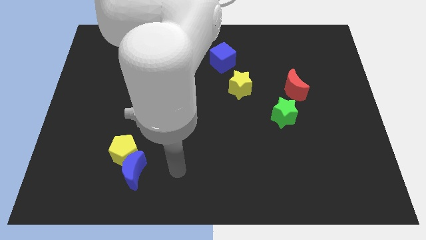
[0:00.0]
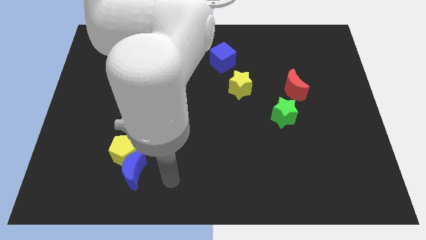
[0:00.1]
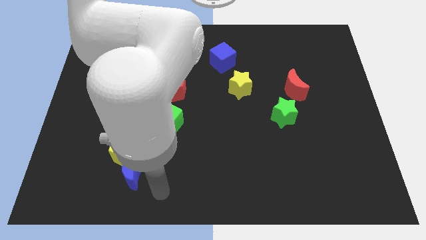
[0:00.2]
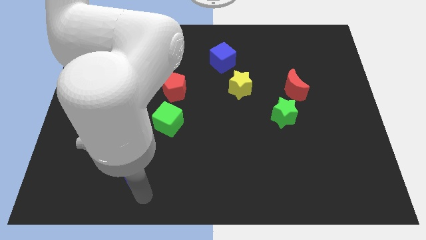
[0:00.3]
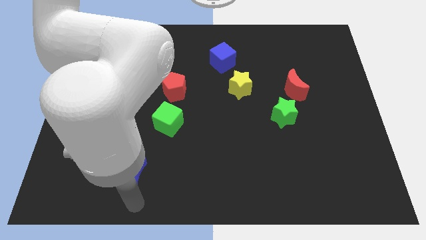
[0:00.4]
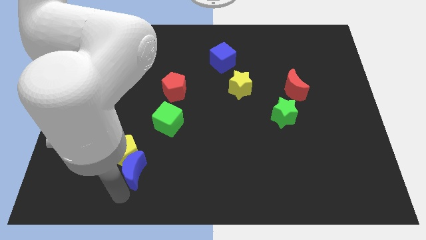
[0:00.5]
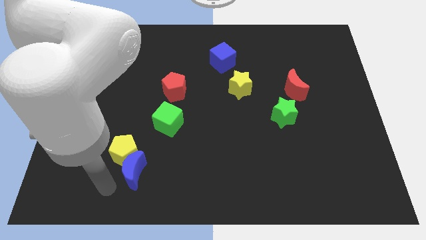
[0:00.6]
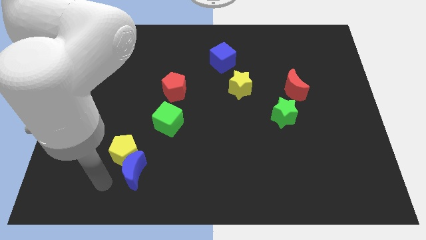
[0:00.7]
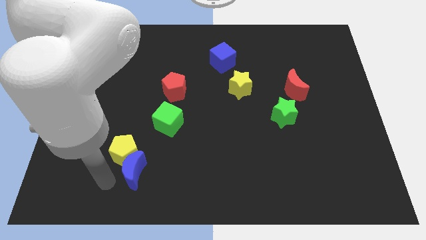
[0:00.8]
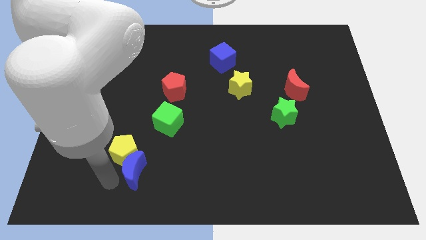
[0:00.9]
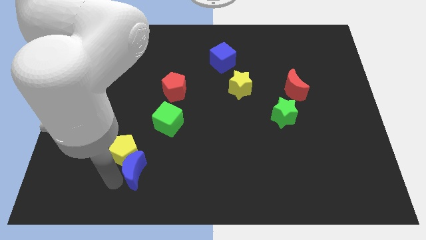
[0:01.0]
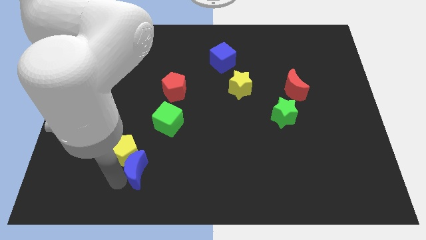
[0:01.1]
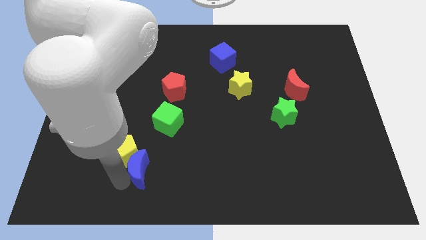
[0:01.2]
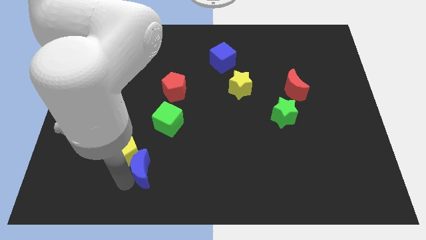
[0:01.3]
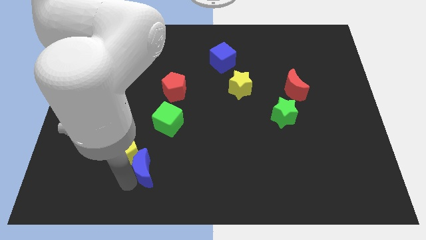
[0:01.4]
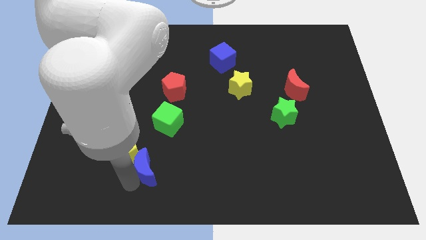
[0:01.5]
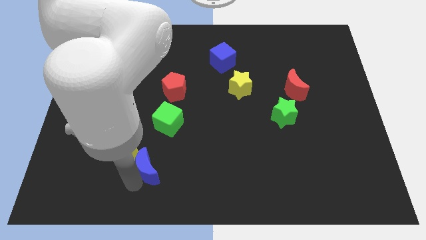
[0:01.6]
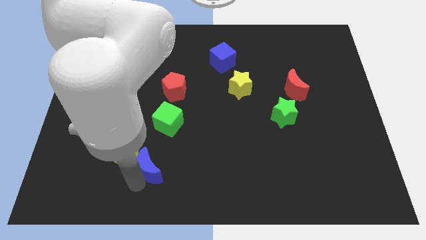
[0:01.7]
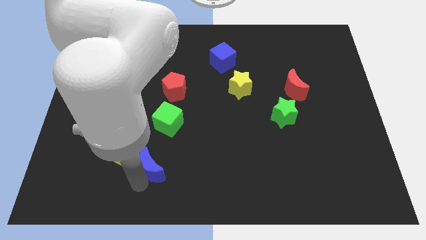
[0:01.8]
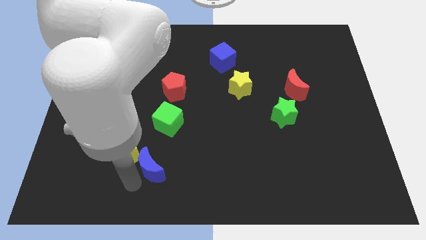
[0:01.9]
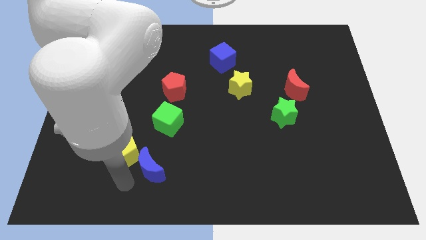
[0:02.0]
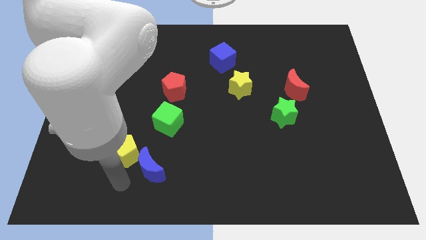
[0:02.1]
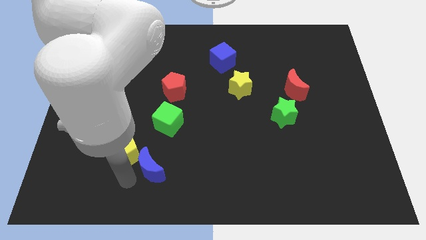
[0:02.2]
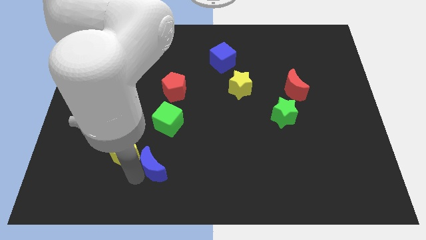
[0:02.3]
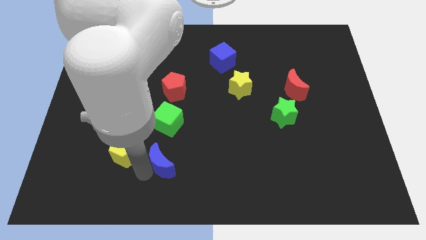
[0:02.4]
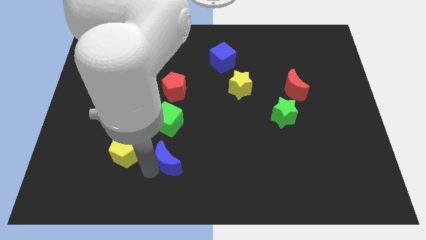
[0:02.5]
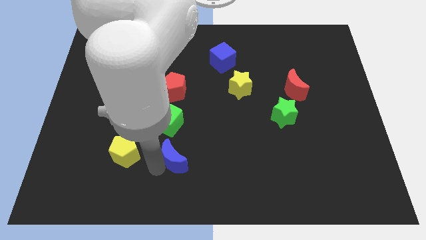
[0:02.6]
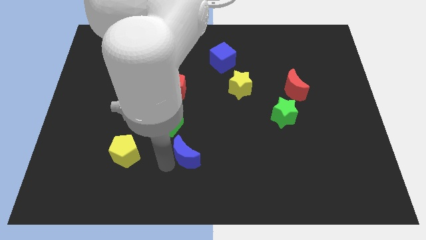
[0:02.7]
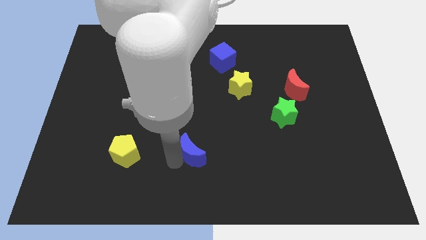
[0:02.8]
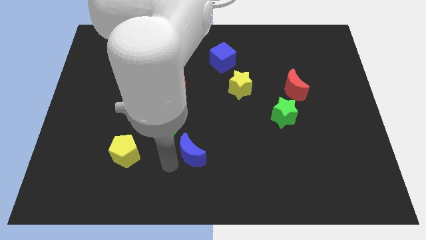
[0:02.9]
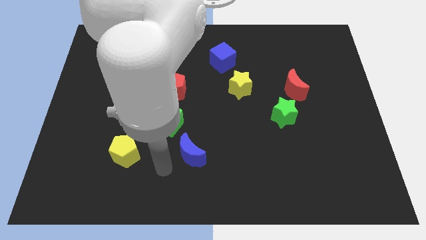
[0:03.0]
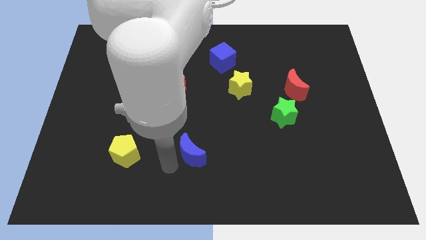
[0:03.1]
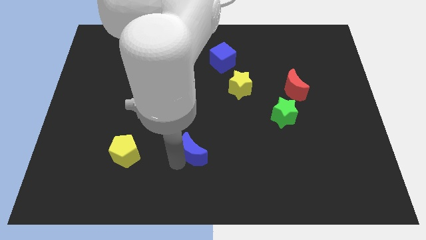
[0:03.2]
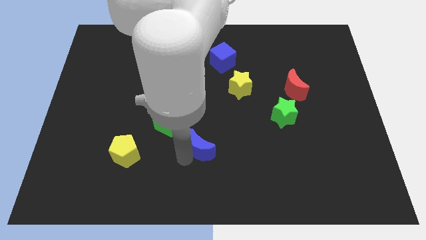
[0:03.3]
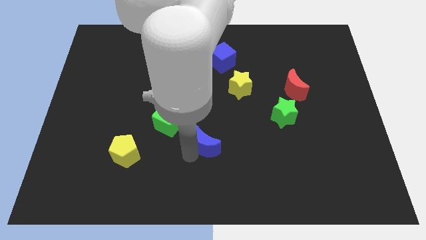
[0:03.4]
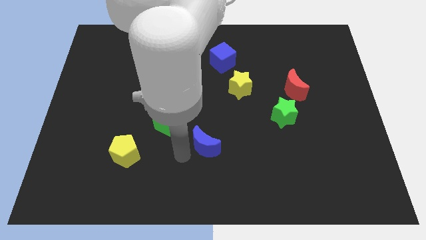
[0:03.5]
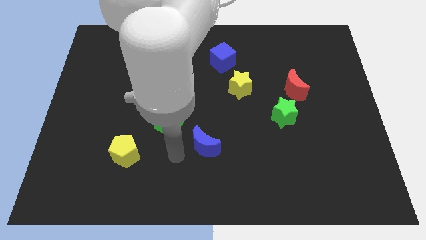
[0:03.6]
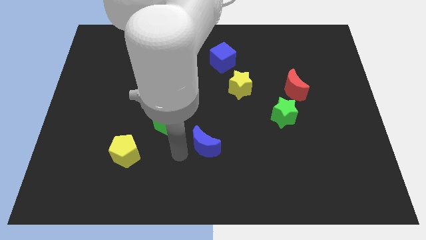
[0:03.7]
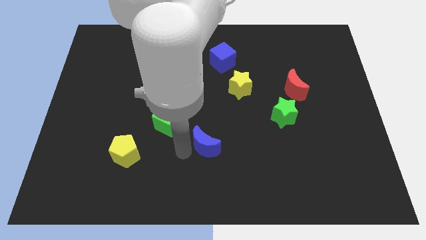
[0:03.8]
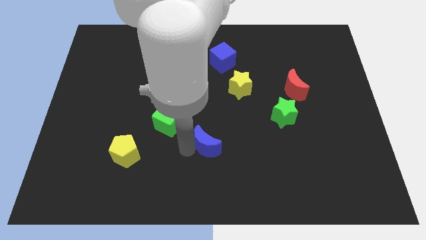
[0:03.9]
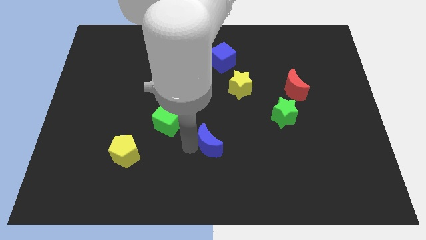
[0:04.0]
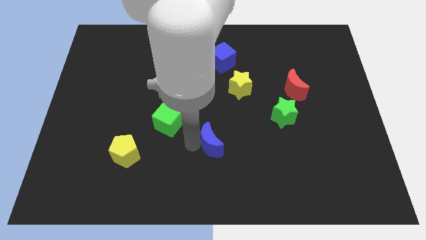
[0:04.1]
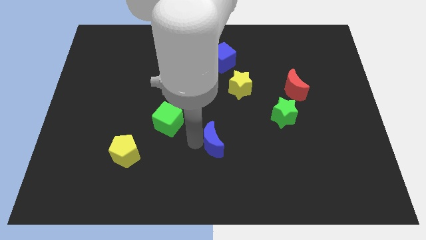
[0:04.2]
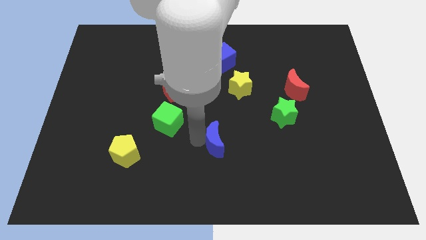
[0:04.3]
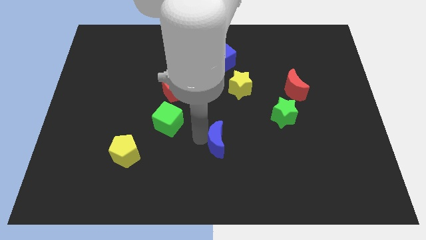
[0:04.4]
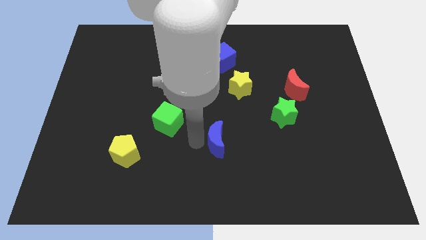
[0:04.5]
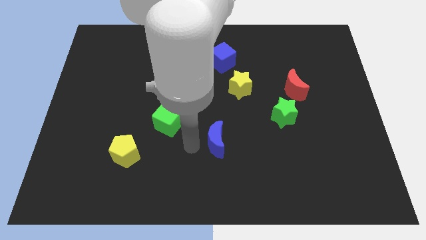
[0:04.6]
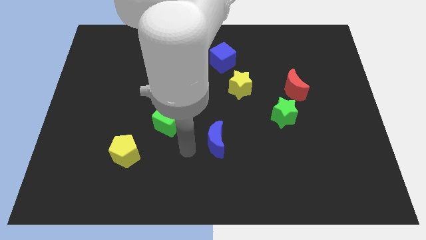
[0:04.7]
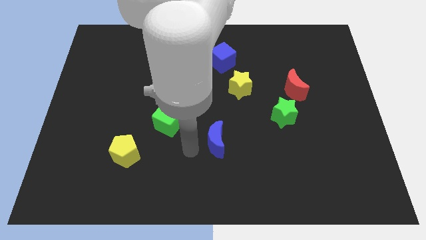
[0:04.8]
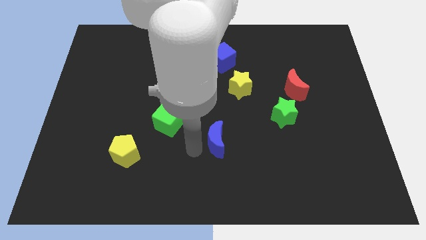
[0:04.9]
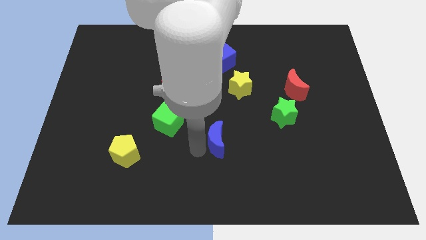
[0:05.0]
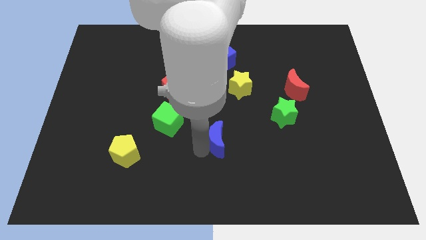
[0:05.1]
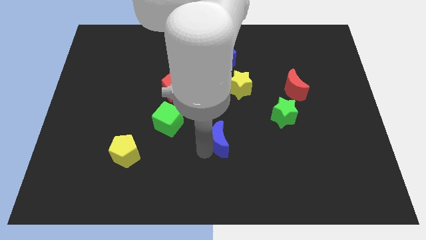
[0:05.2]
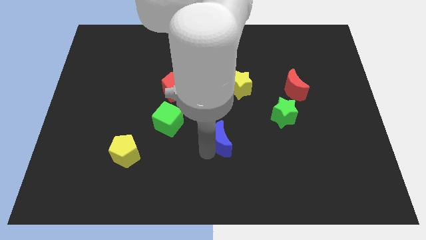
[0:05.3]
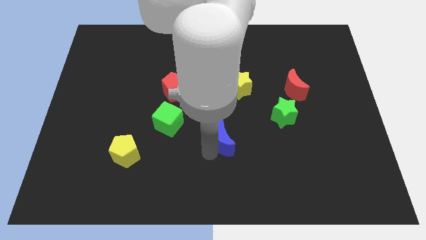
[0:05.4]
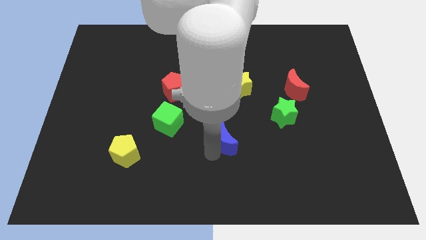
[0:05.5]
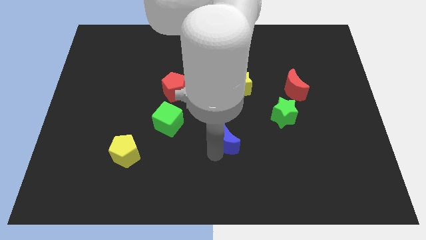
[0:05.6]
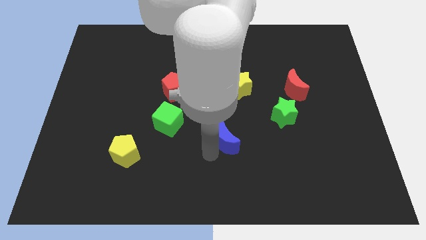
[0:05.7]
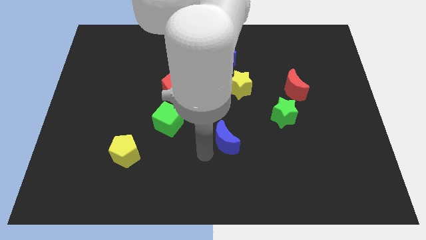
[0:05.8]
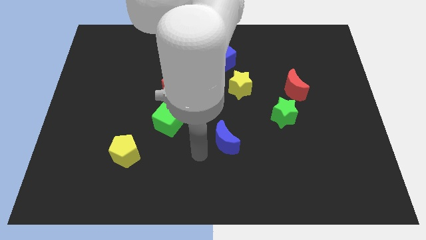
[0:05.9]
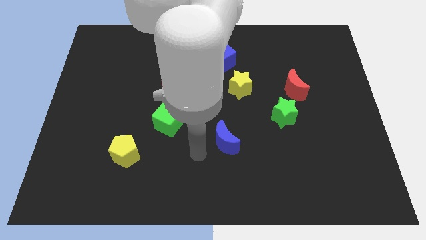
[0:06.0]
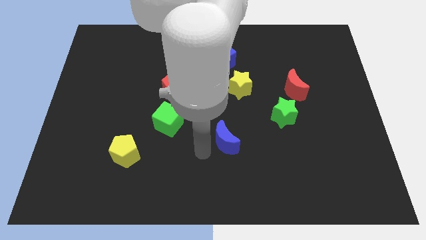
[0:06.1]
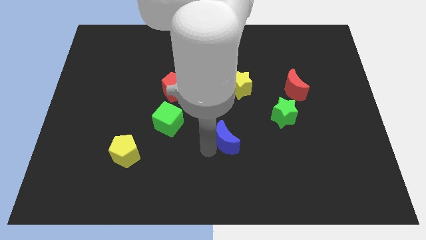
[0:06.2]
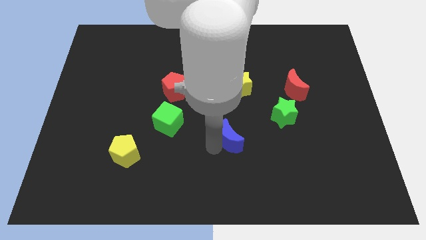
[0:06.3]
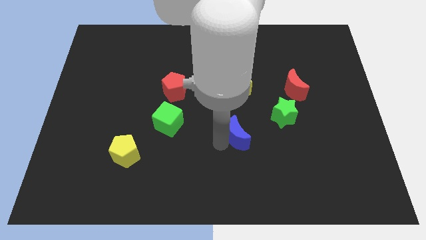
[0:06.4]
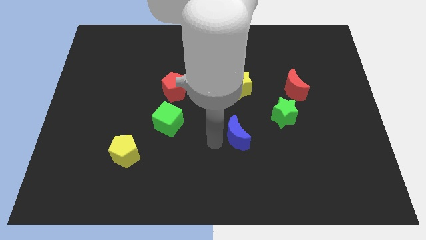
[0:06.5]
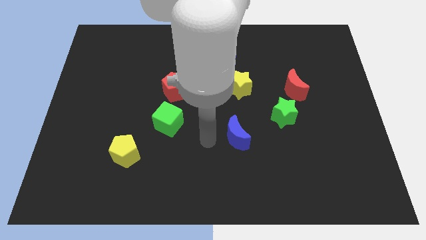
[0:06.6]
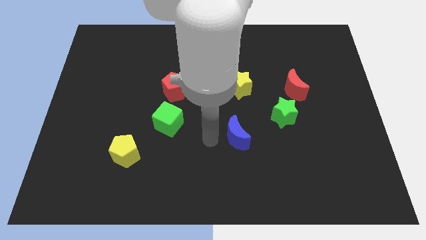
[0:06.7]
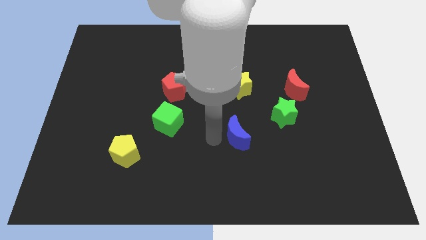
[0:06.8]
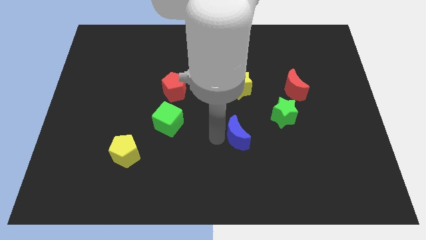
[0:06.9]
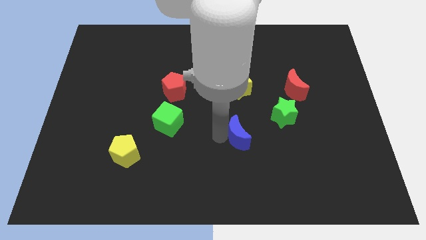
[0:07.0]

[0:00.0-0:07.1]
push the blue moon to the bottom left side of the green star
